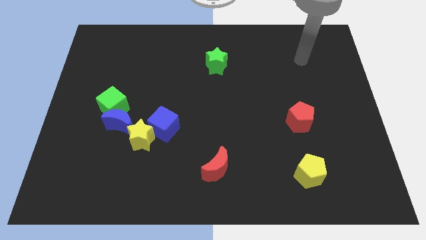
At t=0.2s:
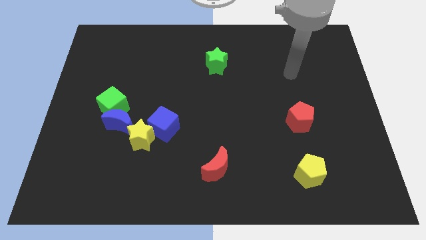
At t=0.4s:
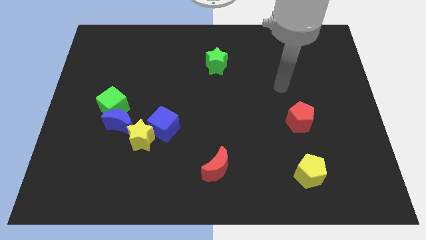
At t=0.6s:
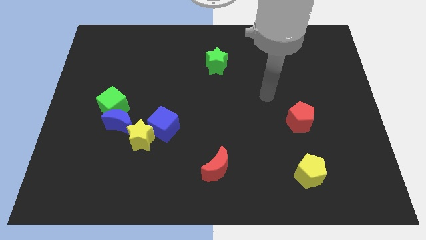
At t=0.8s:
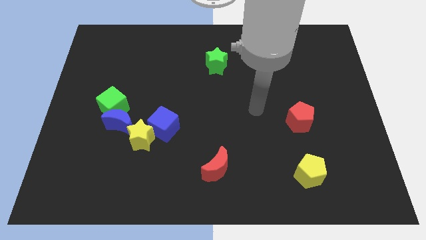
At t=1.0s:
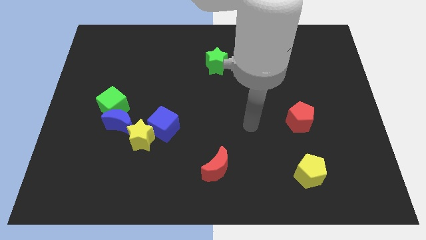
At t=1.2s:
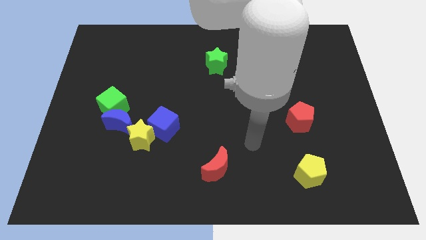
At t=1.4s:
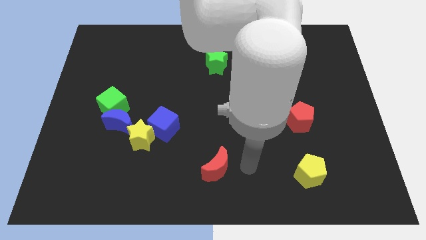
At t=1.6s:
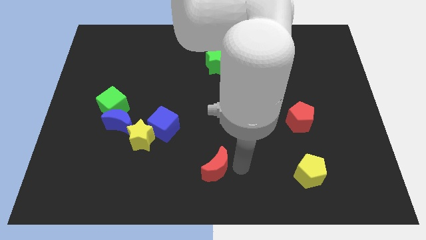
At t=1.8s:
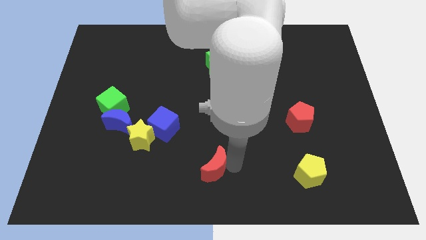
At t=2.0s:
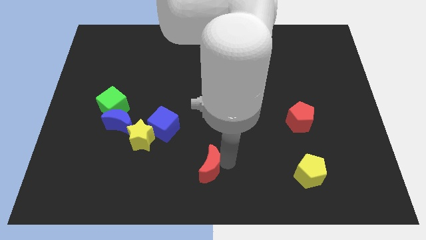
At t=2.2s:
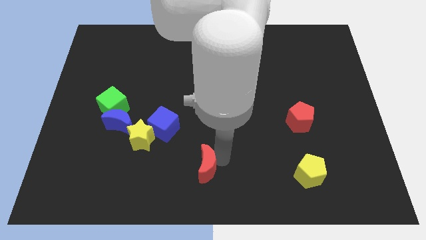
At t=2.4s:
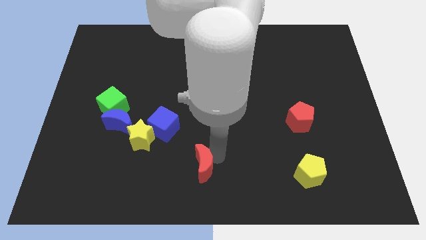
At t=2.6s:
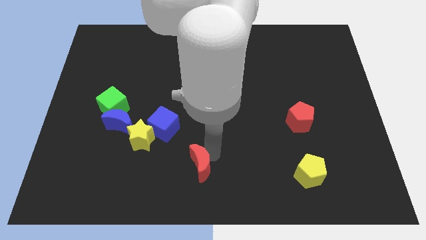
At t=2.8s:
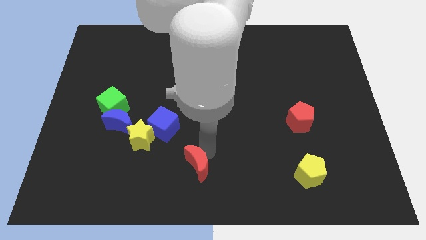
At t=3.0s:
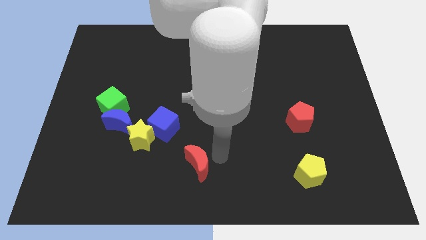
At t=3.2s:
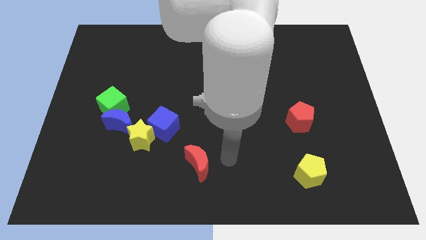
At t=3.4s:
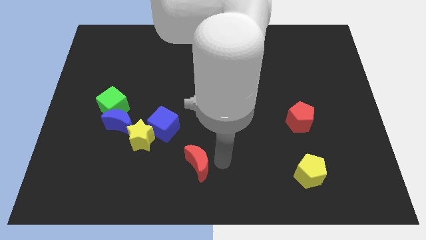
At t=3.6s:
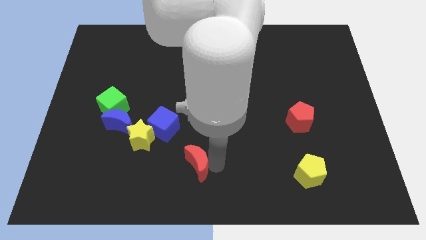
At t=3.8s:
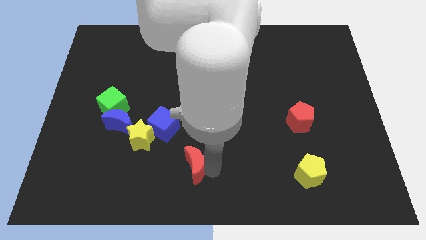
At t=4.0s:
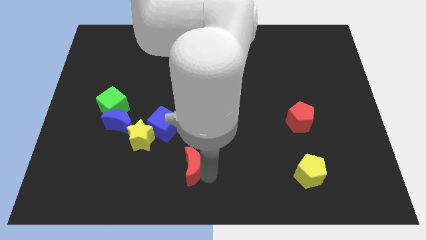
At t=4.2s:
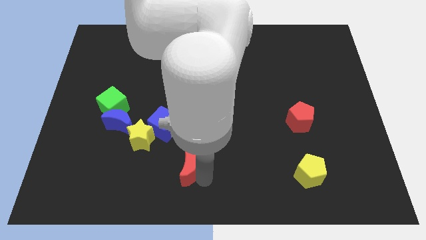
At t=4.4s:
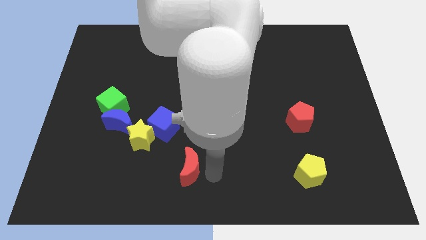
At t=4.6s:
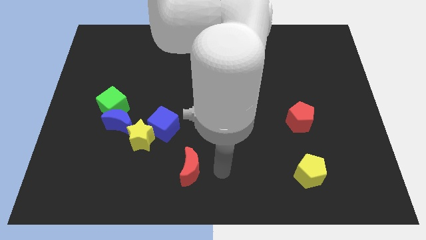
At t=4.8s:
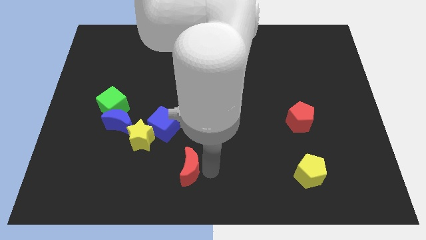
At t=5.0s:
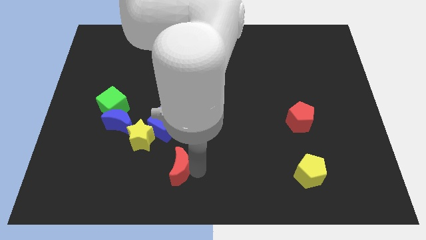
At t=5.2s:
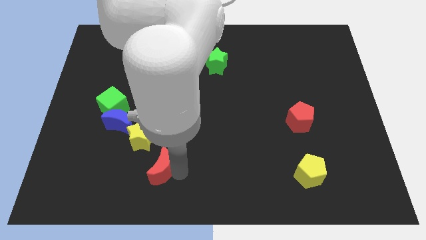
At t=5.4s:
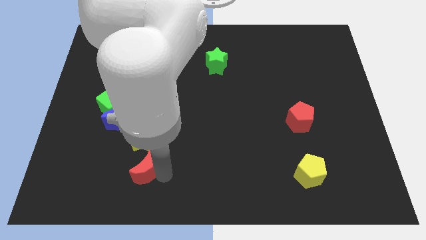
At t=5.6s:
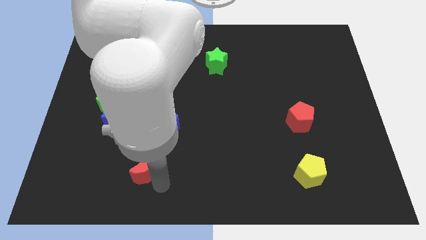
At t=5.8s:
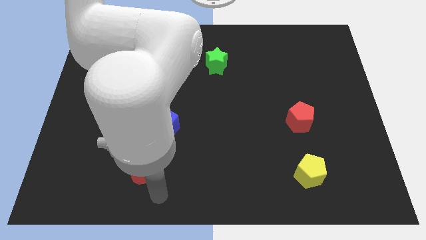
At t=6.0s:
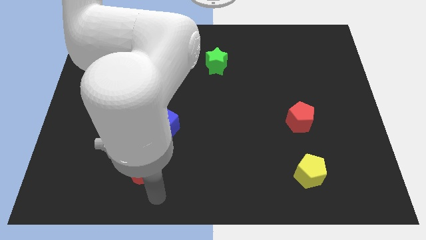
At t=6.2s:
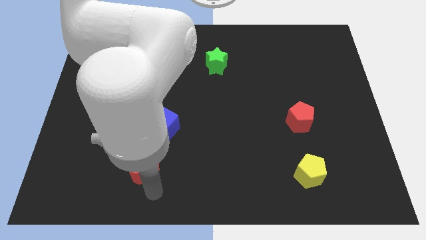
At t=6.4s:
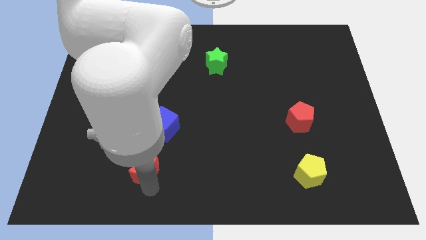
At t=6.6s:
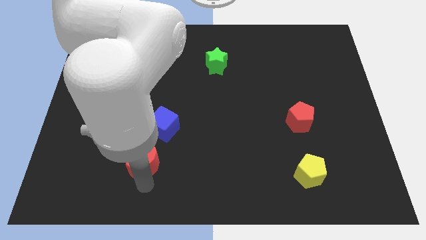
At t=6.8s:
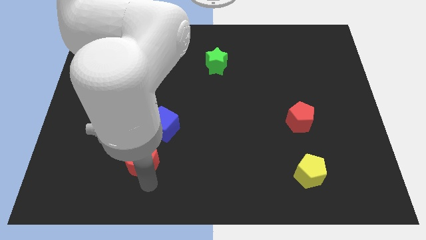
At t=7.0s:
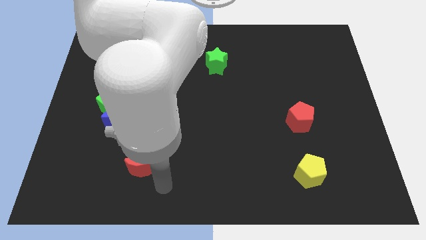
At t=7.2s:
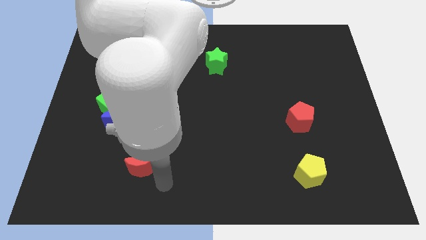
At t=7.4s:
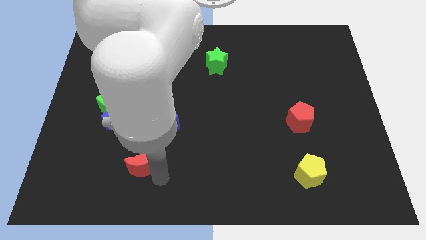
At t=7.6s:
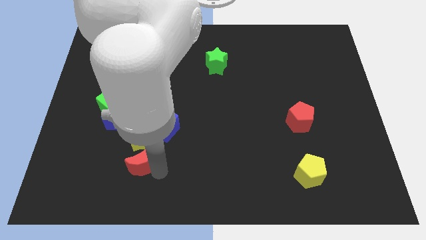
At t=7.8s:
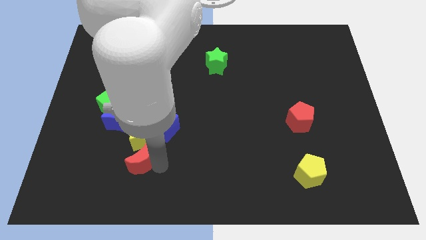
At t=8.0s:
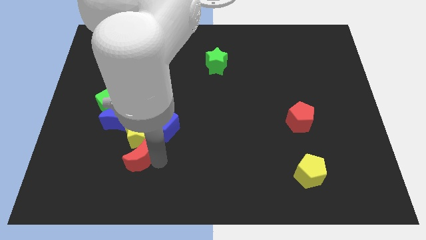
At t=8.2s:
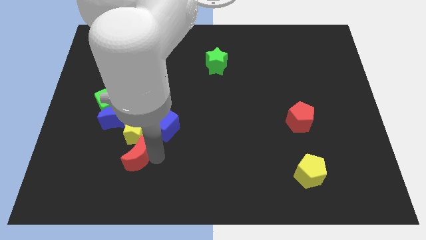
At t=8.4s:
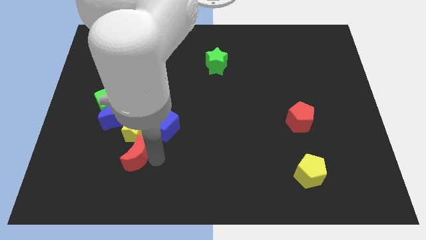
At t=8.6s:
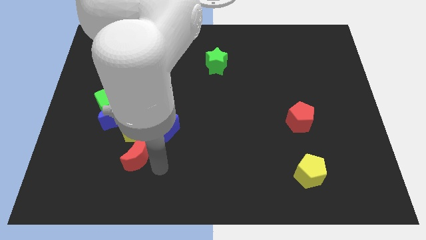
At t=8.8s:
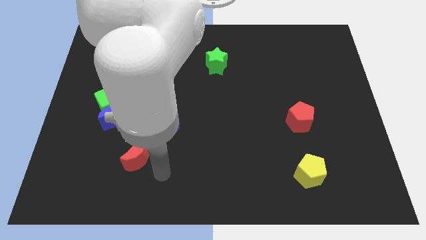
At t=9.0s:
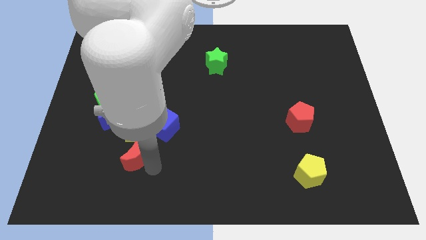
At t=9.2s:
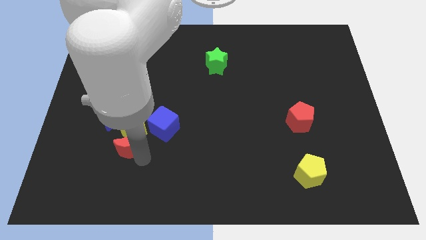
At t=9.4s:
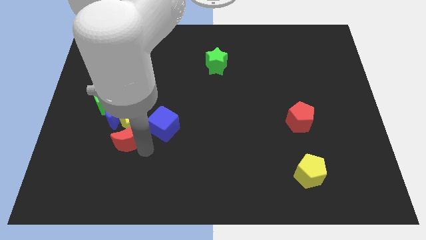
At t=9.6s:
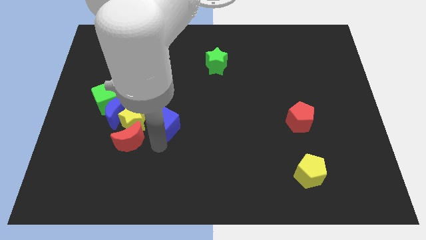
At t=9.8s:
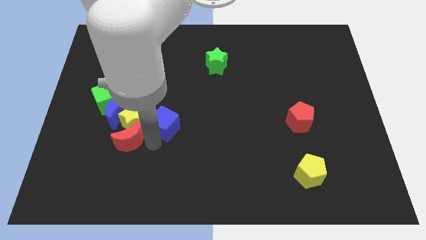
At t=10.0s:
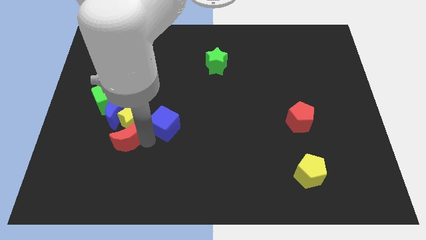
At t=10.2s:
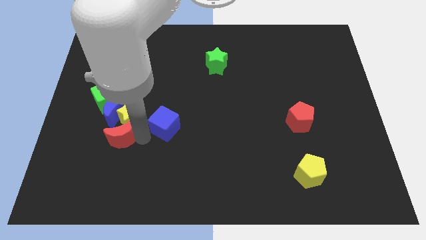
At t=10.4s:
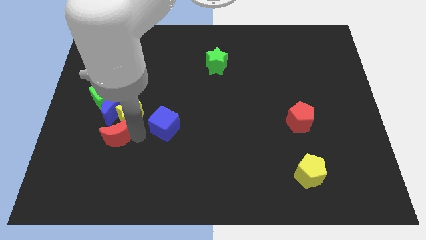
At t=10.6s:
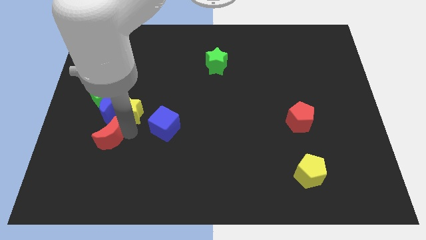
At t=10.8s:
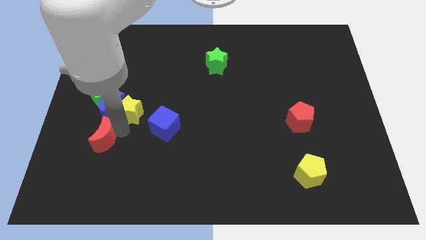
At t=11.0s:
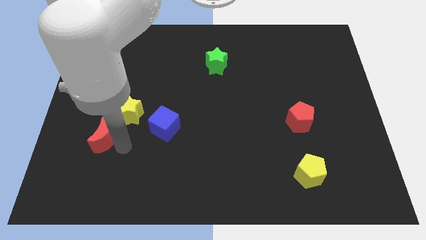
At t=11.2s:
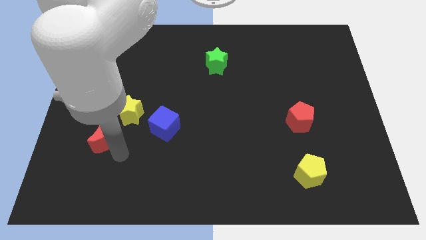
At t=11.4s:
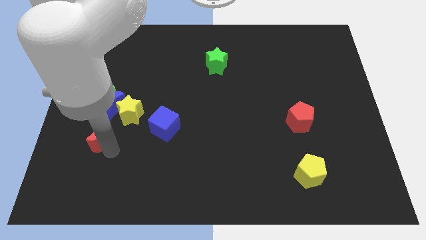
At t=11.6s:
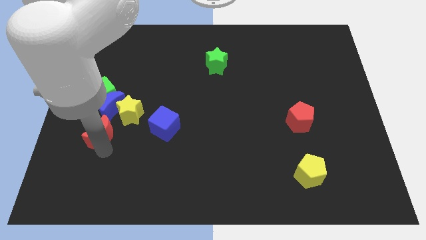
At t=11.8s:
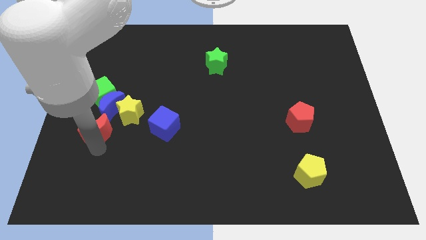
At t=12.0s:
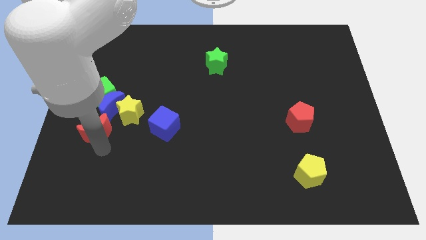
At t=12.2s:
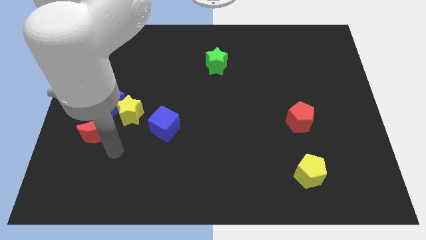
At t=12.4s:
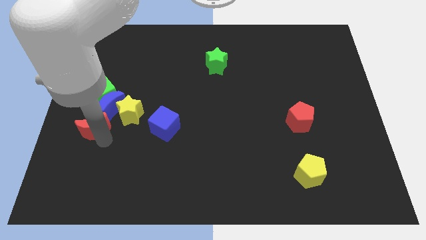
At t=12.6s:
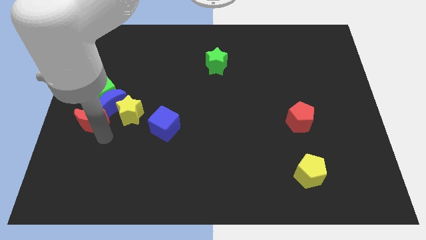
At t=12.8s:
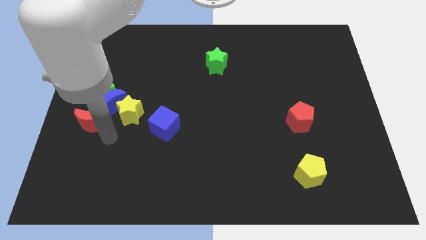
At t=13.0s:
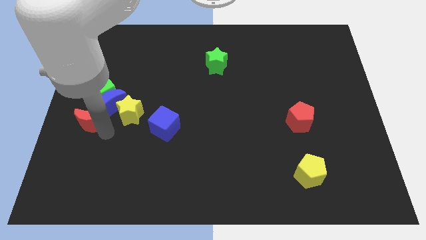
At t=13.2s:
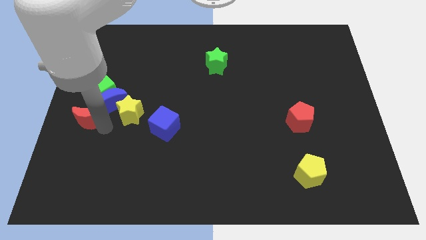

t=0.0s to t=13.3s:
move the red moon to the bottom left of the green cube

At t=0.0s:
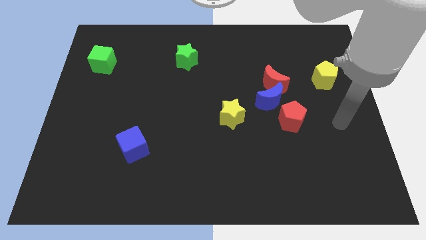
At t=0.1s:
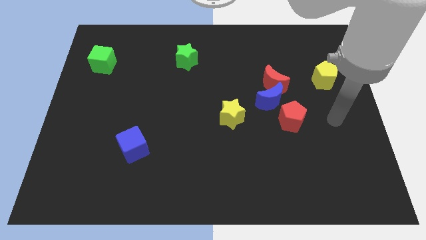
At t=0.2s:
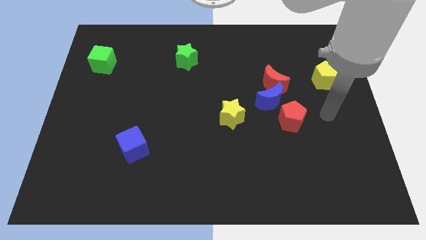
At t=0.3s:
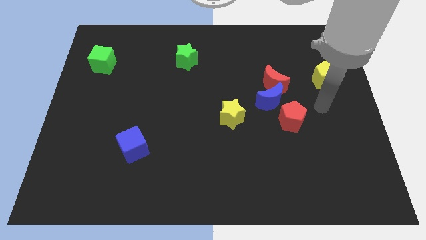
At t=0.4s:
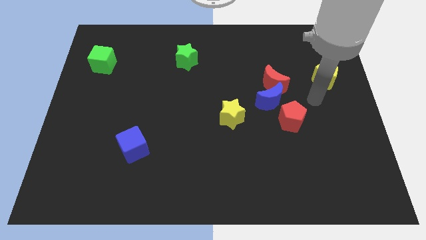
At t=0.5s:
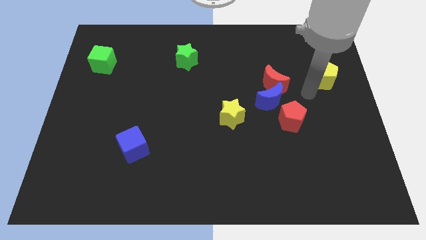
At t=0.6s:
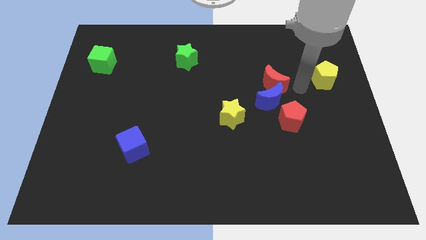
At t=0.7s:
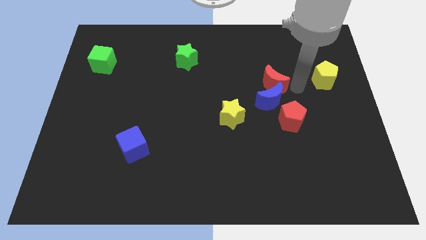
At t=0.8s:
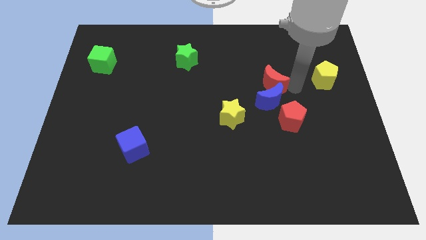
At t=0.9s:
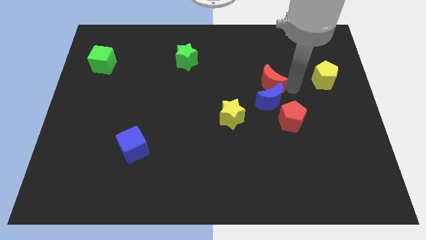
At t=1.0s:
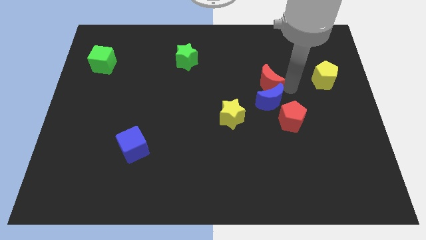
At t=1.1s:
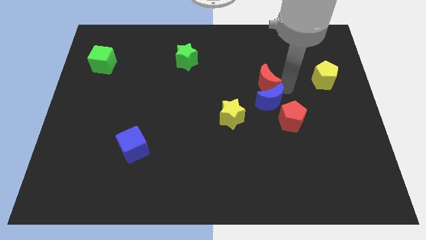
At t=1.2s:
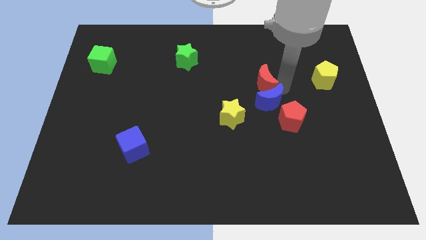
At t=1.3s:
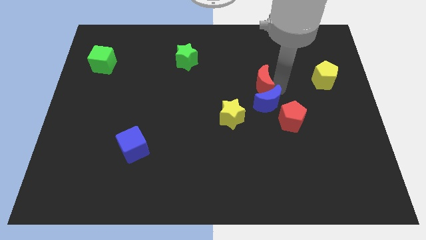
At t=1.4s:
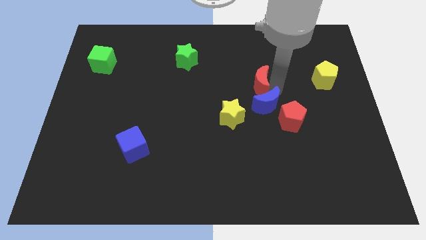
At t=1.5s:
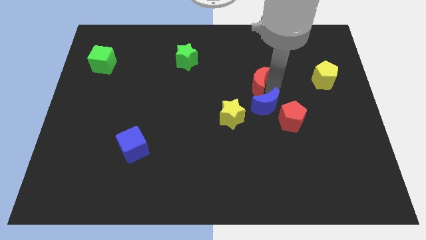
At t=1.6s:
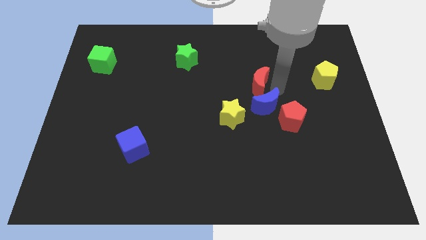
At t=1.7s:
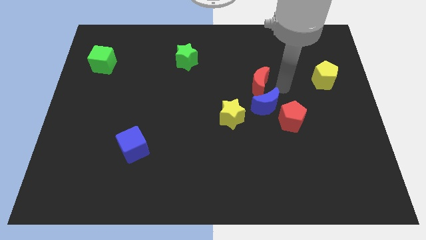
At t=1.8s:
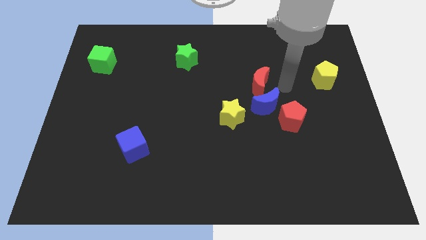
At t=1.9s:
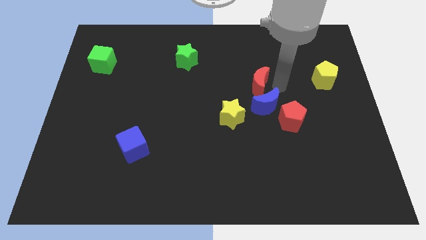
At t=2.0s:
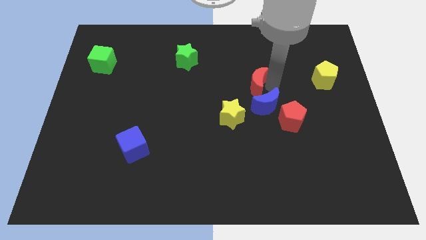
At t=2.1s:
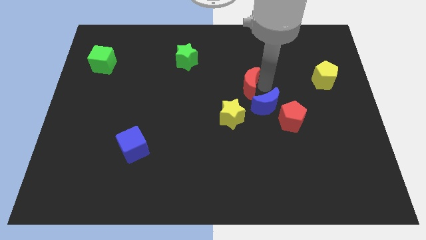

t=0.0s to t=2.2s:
slide the red moon to the top side of the yellow star
